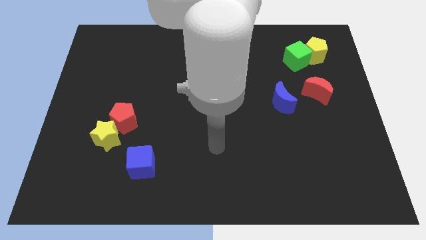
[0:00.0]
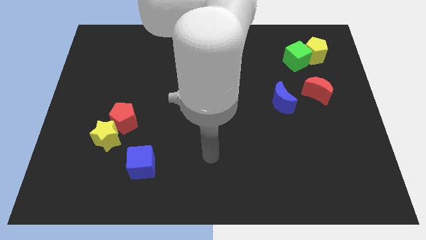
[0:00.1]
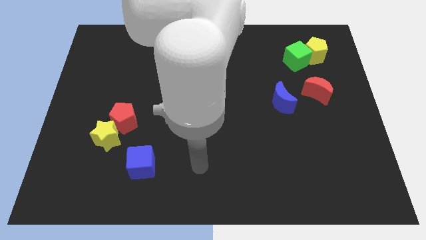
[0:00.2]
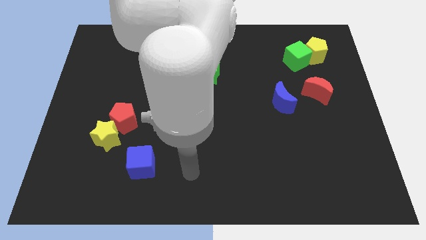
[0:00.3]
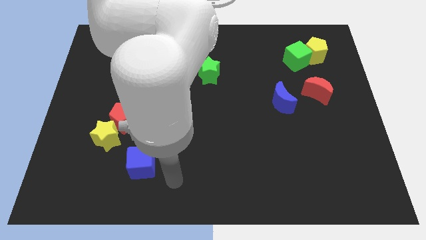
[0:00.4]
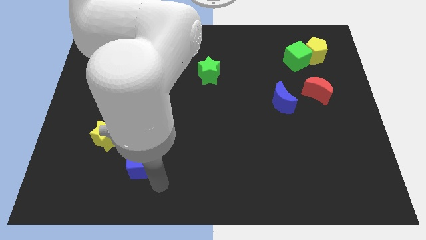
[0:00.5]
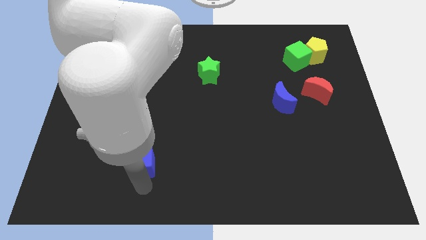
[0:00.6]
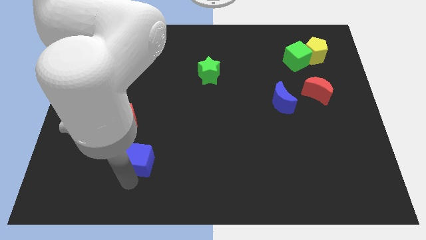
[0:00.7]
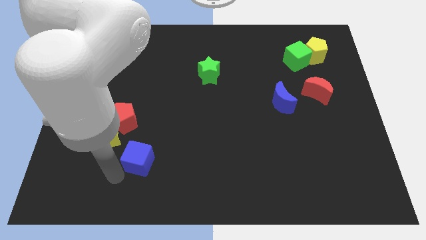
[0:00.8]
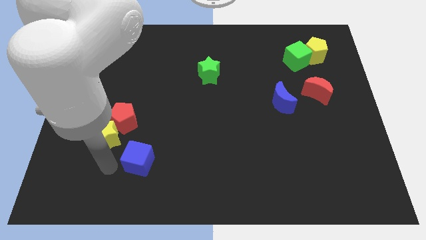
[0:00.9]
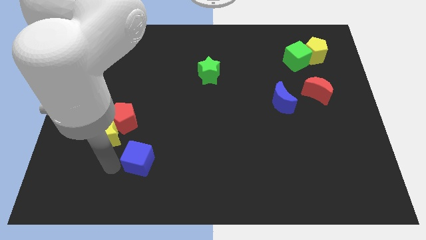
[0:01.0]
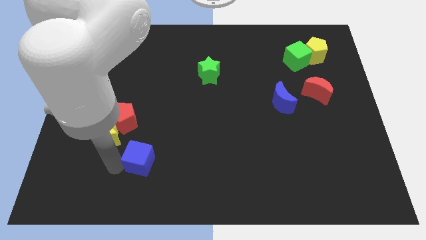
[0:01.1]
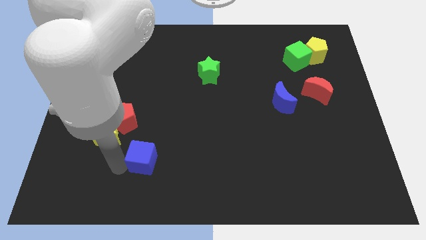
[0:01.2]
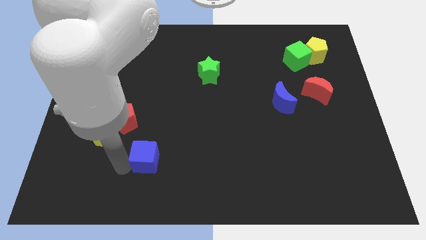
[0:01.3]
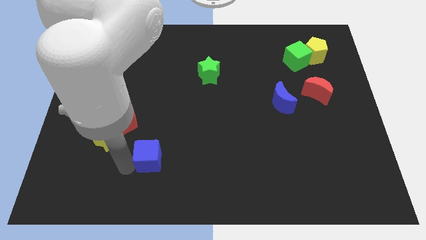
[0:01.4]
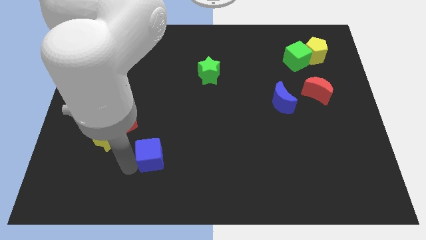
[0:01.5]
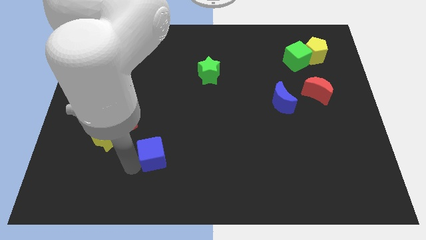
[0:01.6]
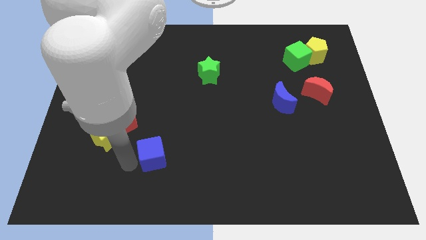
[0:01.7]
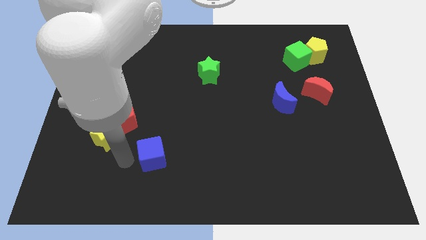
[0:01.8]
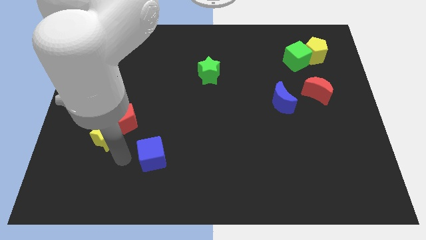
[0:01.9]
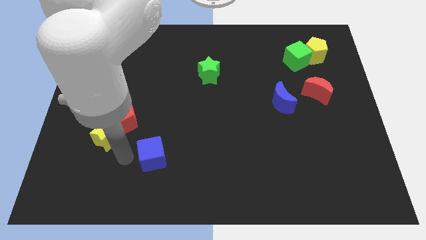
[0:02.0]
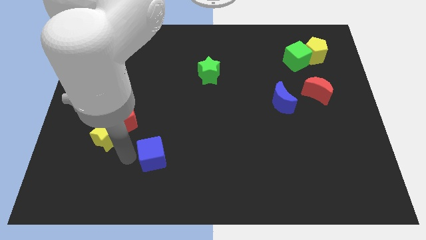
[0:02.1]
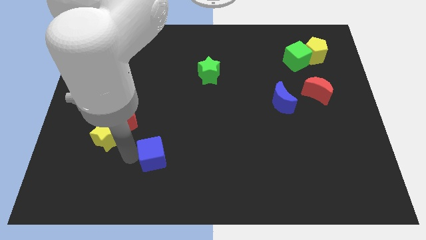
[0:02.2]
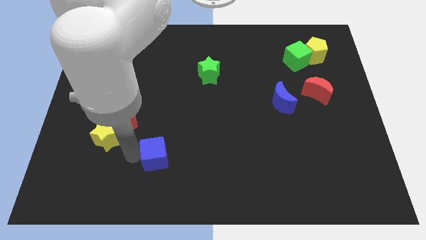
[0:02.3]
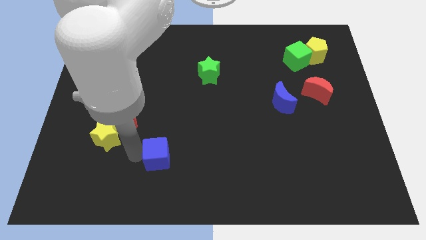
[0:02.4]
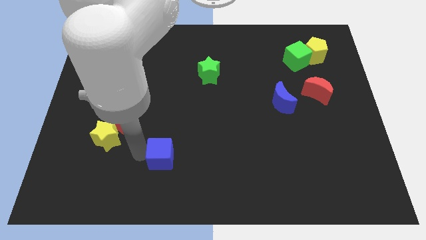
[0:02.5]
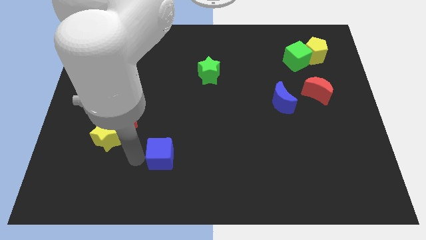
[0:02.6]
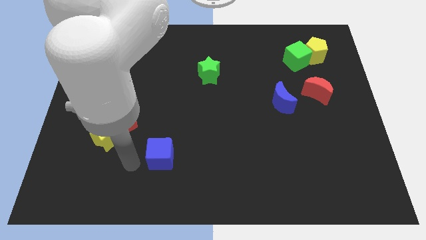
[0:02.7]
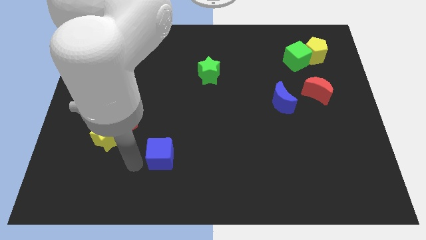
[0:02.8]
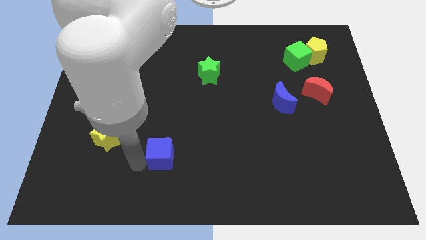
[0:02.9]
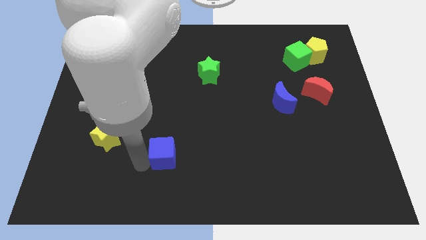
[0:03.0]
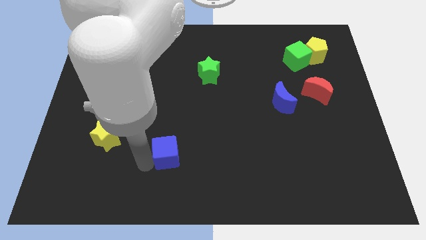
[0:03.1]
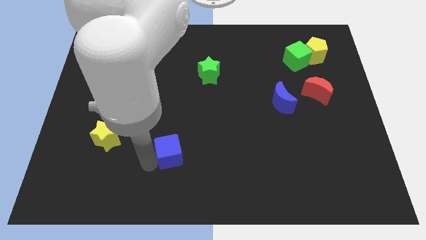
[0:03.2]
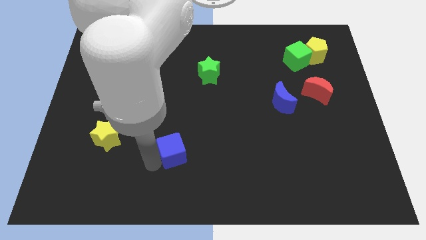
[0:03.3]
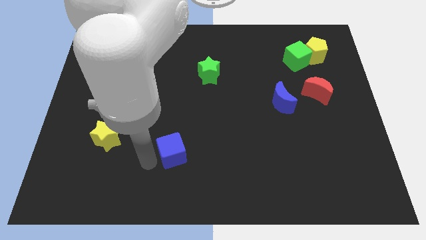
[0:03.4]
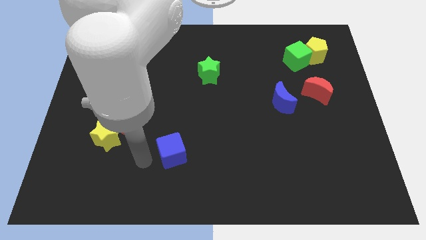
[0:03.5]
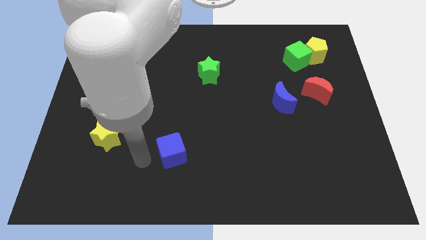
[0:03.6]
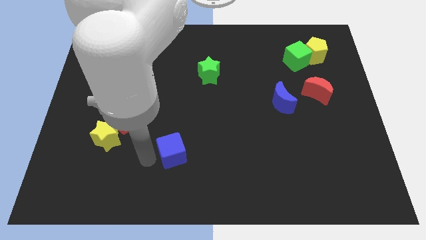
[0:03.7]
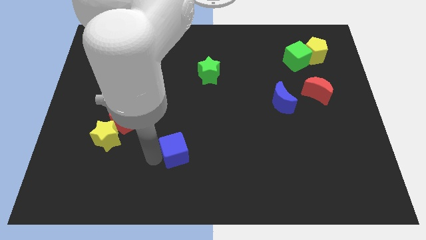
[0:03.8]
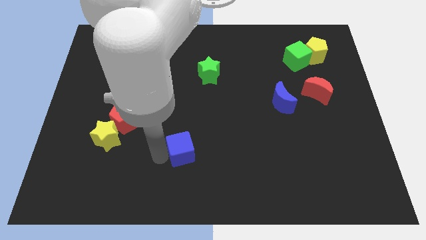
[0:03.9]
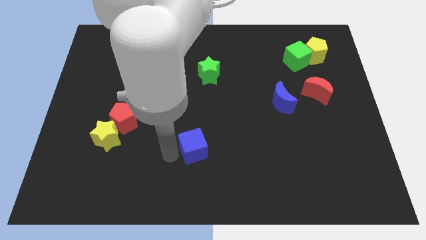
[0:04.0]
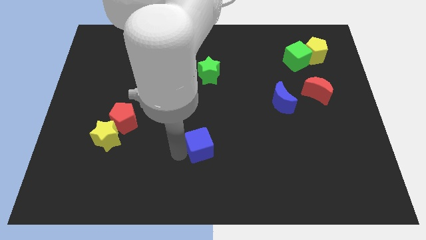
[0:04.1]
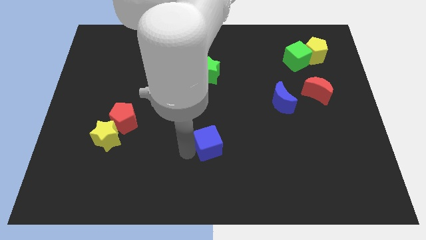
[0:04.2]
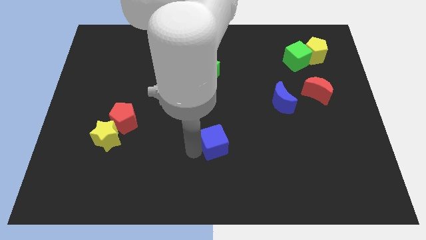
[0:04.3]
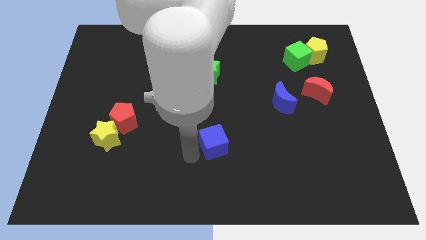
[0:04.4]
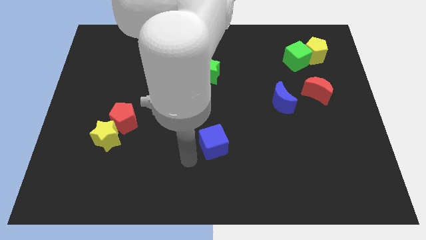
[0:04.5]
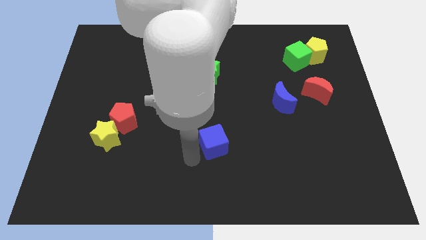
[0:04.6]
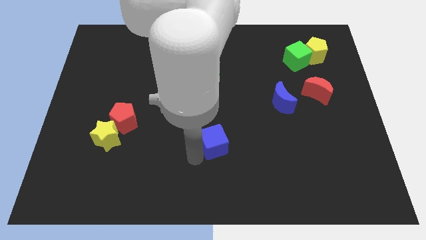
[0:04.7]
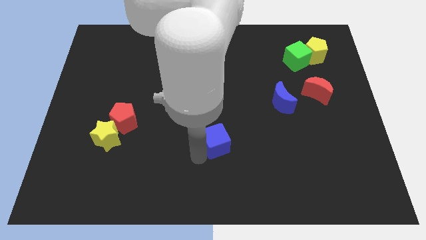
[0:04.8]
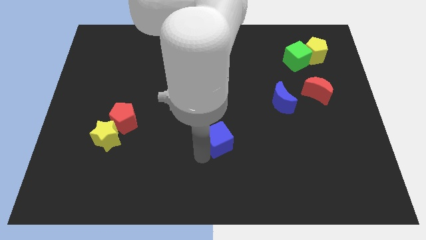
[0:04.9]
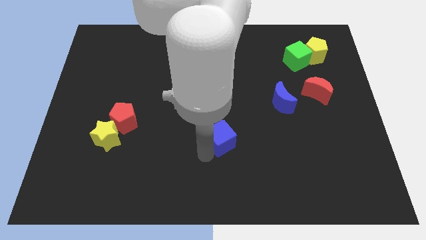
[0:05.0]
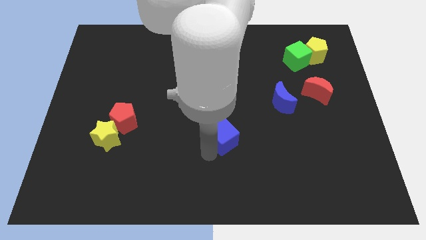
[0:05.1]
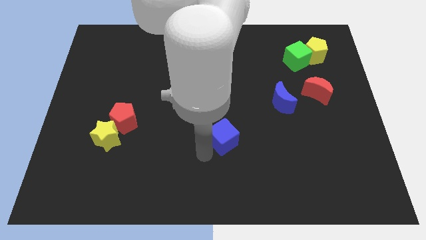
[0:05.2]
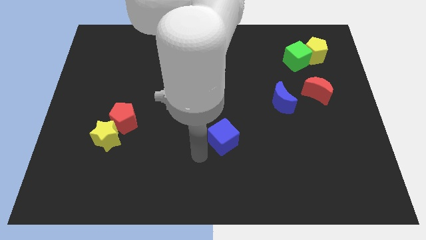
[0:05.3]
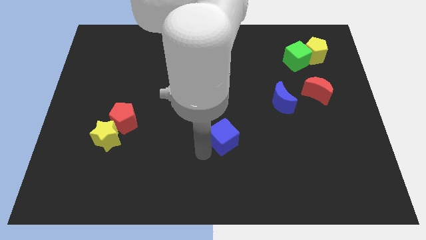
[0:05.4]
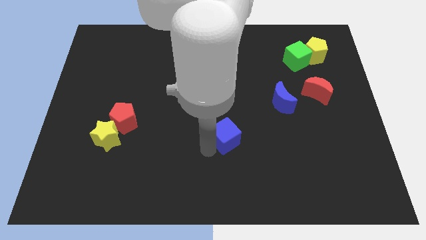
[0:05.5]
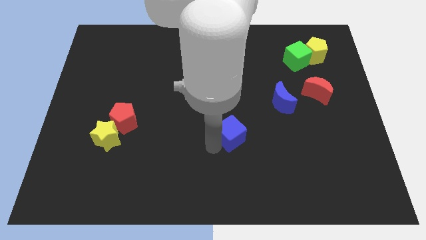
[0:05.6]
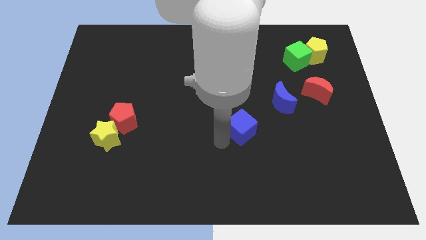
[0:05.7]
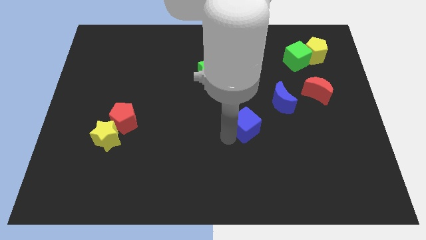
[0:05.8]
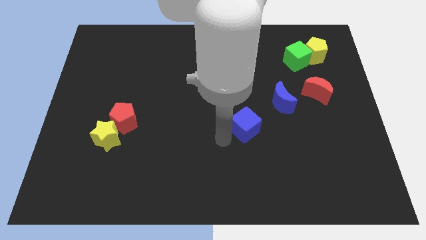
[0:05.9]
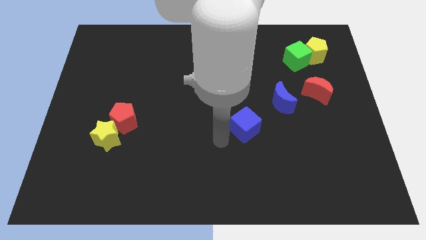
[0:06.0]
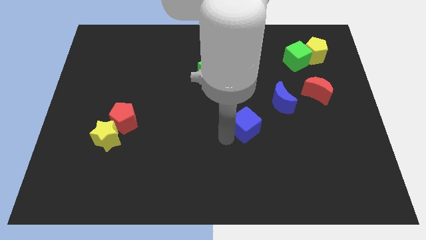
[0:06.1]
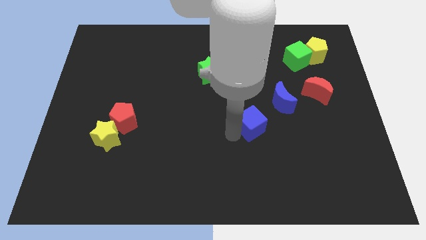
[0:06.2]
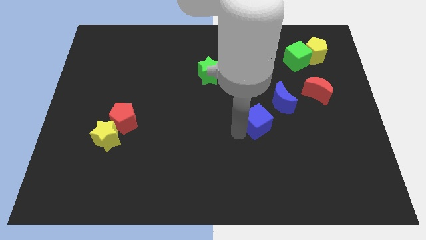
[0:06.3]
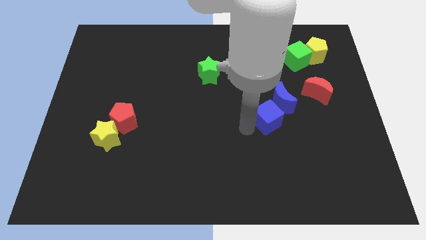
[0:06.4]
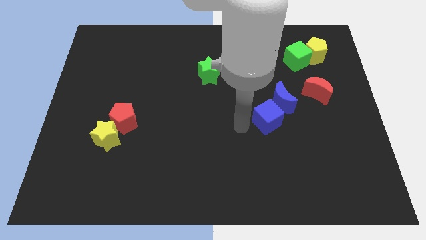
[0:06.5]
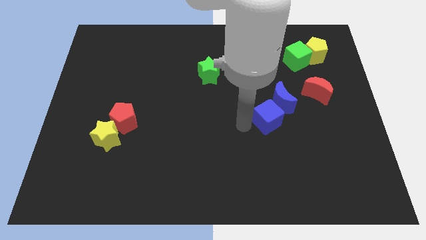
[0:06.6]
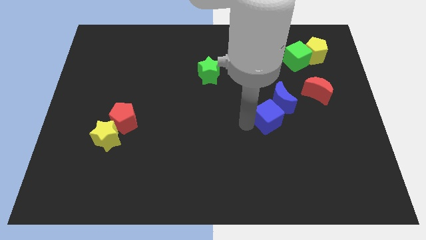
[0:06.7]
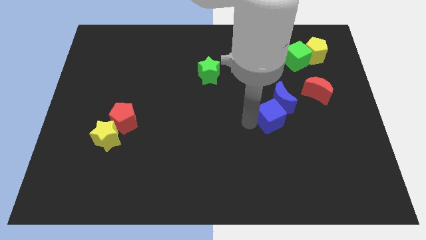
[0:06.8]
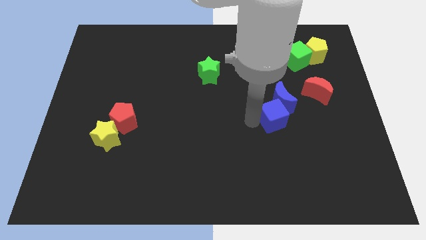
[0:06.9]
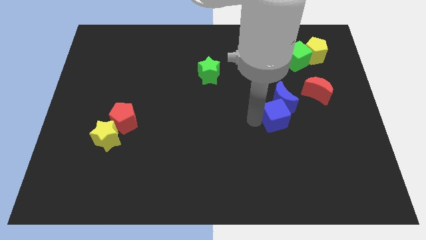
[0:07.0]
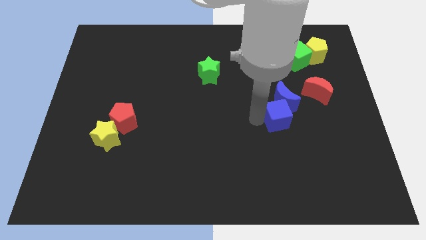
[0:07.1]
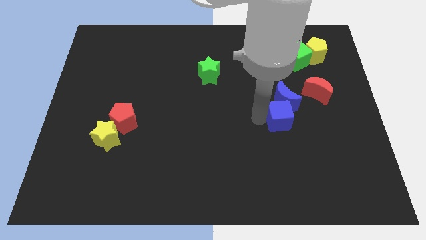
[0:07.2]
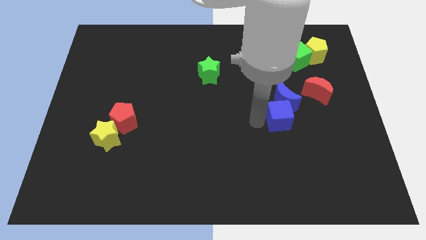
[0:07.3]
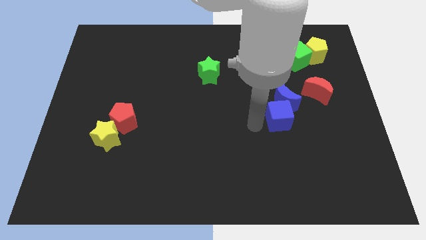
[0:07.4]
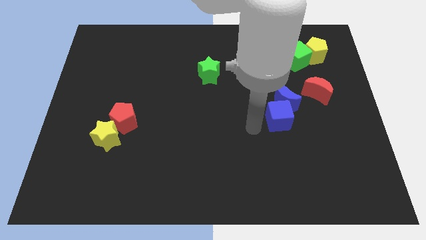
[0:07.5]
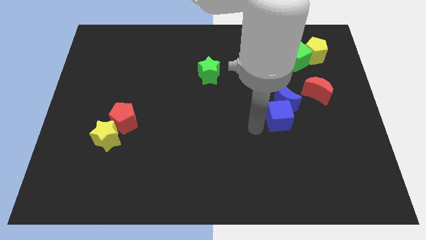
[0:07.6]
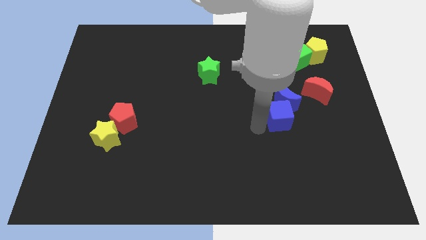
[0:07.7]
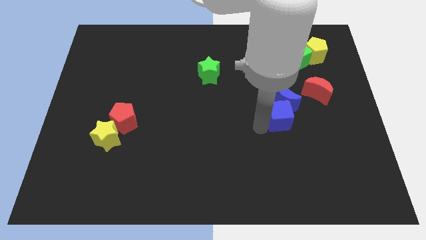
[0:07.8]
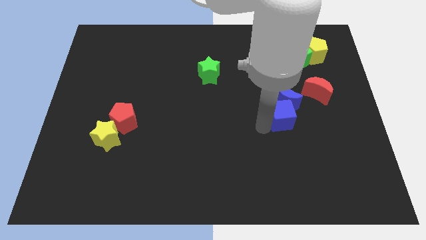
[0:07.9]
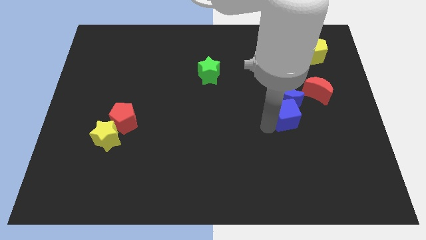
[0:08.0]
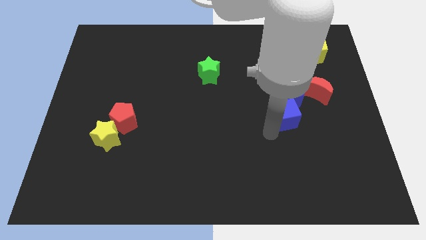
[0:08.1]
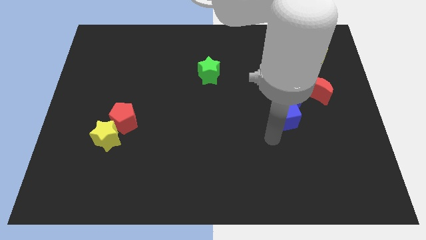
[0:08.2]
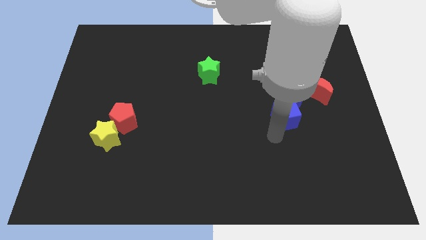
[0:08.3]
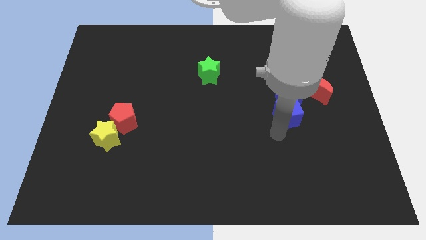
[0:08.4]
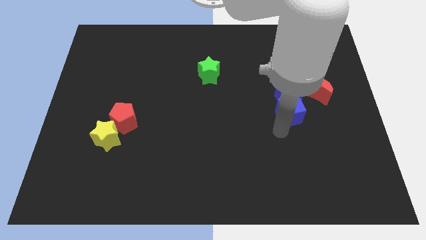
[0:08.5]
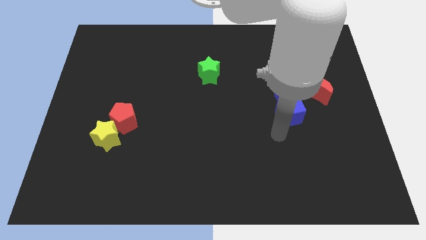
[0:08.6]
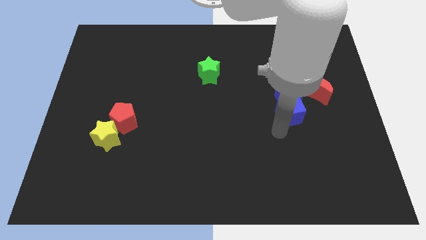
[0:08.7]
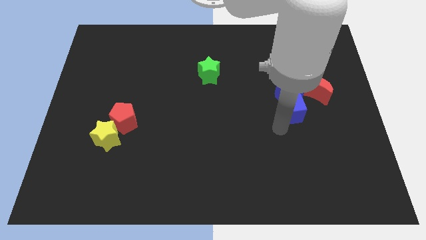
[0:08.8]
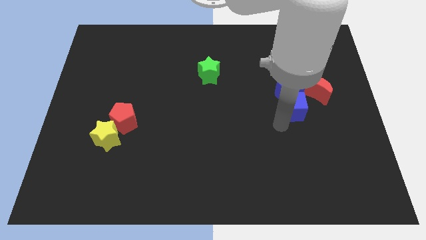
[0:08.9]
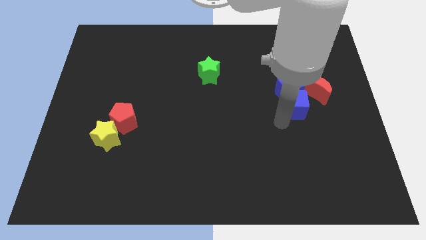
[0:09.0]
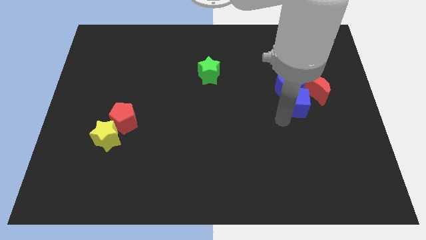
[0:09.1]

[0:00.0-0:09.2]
put the blue cube to the bottom of the green cube
